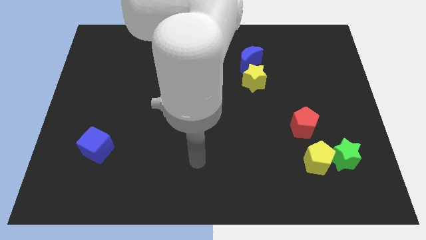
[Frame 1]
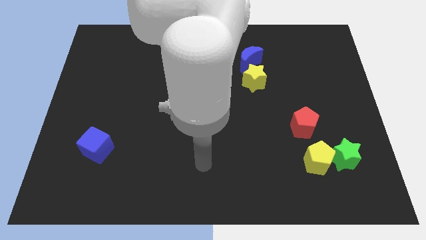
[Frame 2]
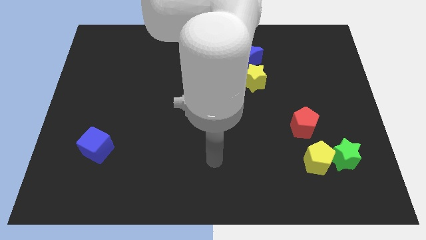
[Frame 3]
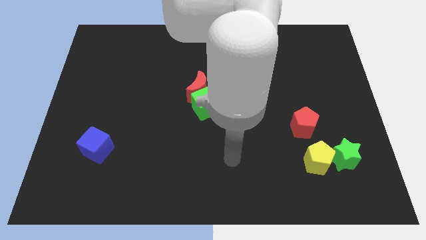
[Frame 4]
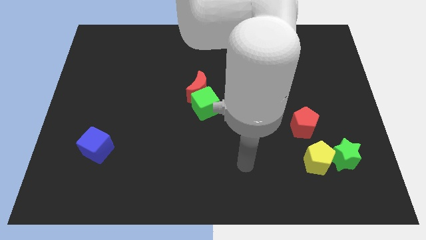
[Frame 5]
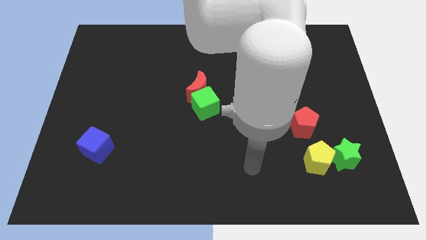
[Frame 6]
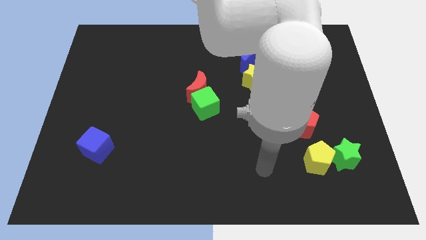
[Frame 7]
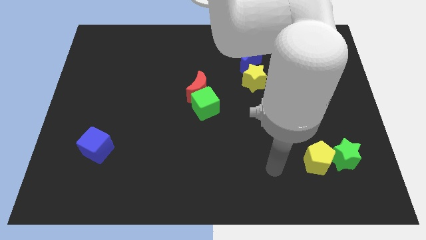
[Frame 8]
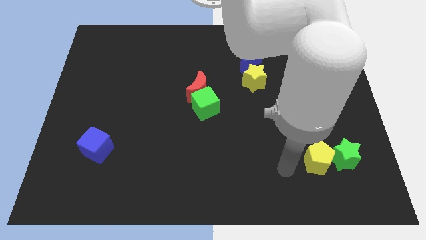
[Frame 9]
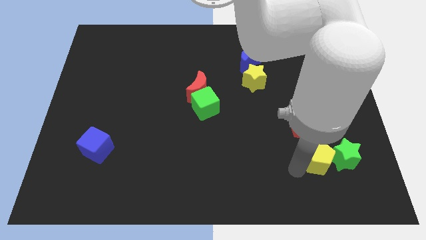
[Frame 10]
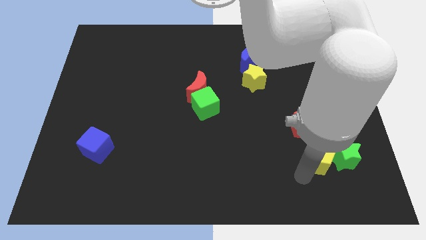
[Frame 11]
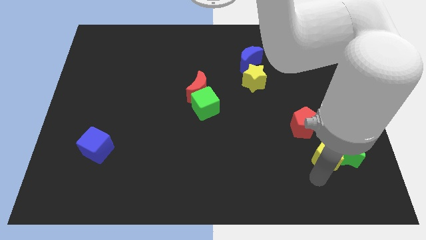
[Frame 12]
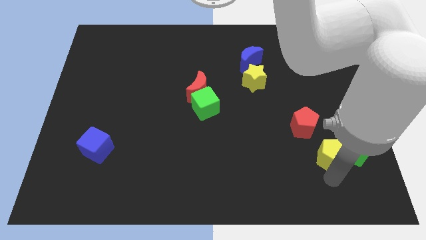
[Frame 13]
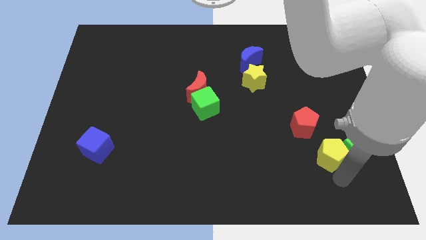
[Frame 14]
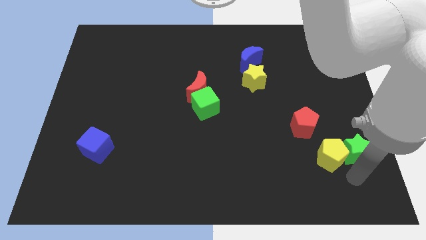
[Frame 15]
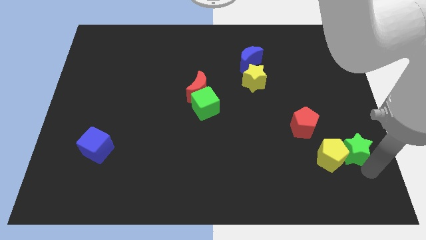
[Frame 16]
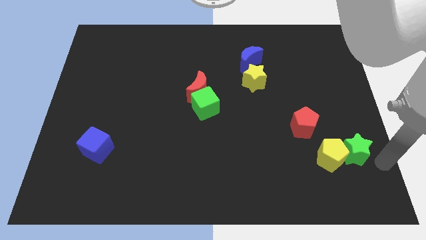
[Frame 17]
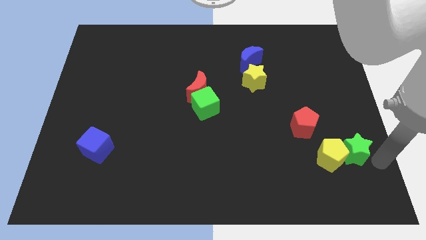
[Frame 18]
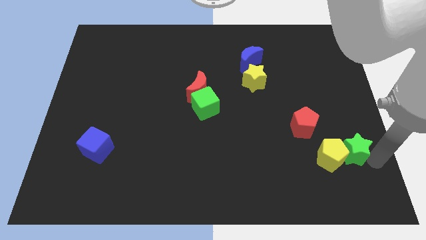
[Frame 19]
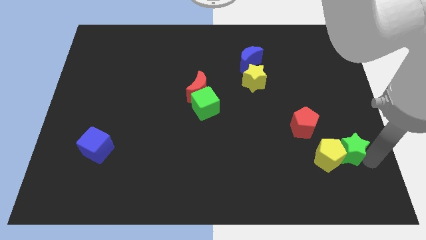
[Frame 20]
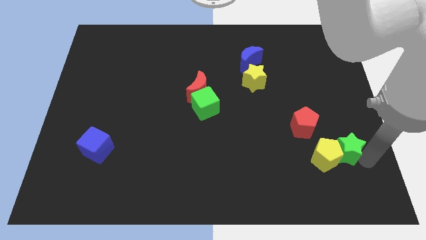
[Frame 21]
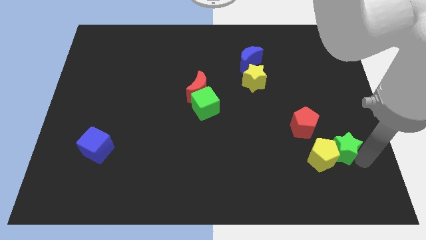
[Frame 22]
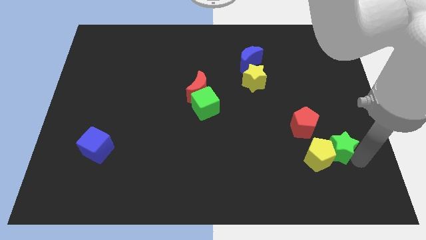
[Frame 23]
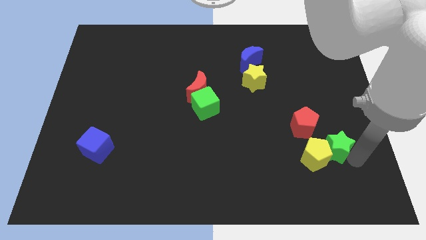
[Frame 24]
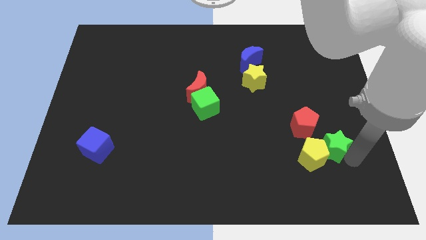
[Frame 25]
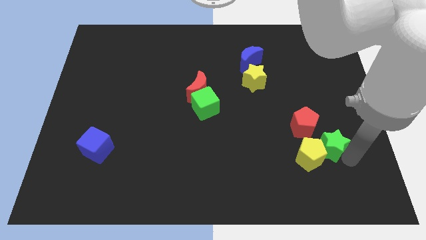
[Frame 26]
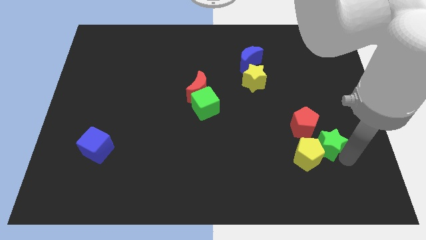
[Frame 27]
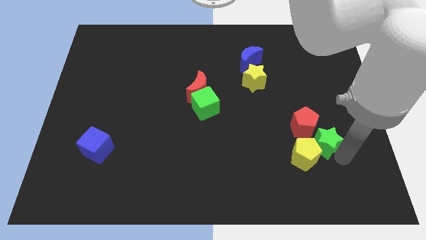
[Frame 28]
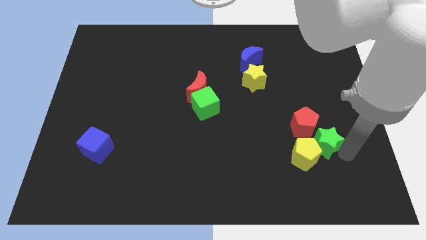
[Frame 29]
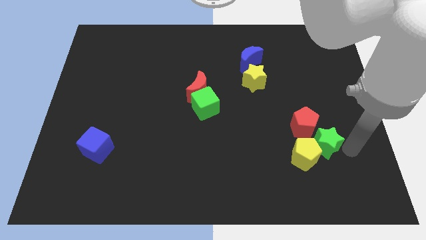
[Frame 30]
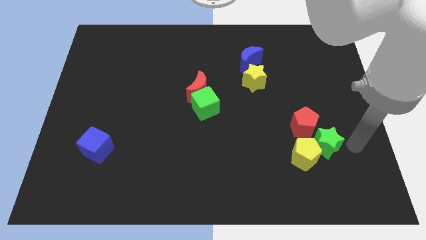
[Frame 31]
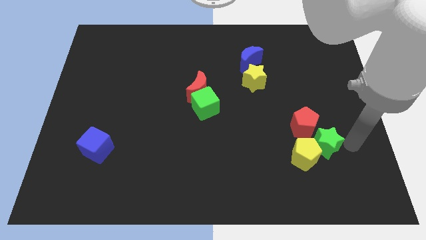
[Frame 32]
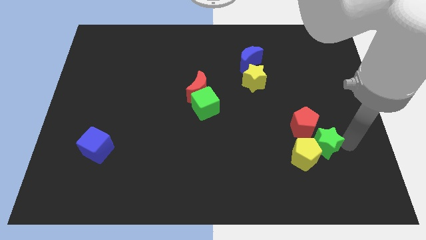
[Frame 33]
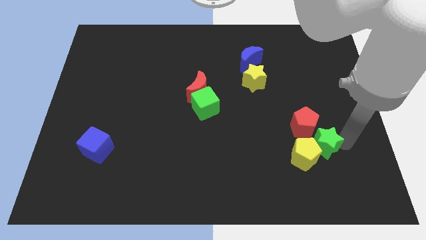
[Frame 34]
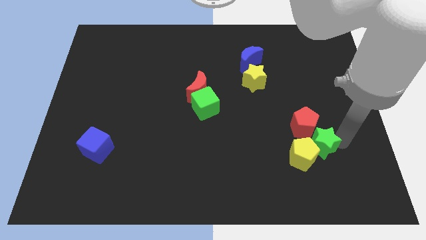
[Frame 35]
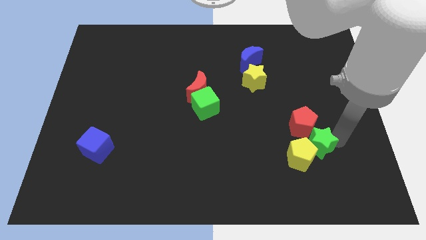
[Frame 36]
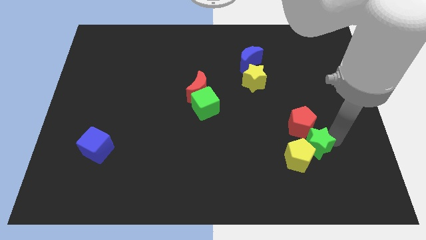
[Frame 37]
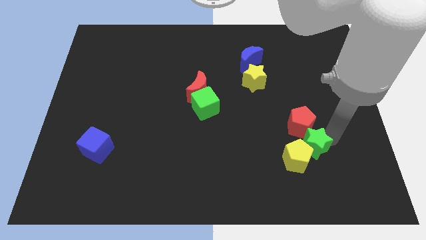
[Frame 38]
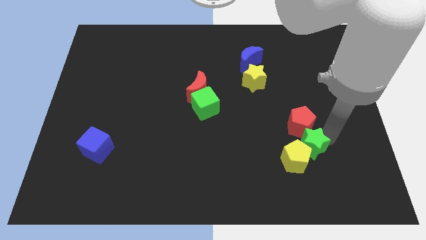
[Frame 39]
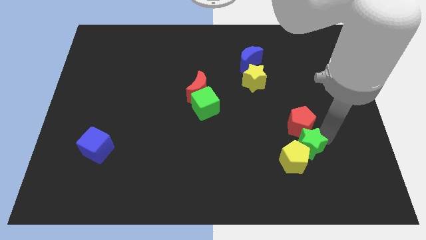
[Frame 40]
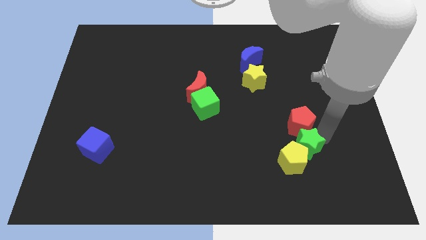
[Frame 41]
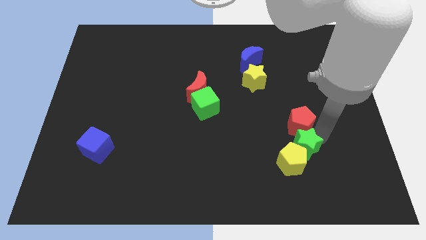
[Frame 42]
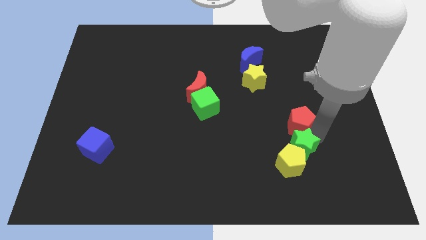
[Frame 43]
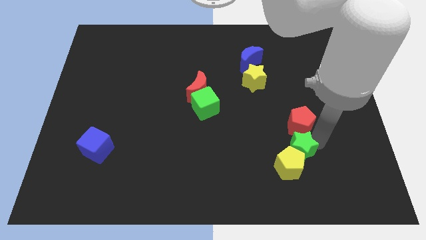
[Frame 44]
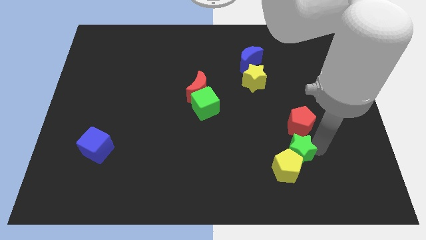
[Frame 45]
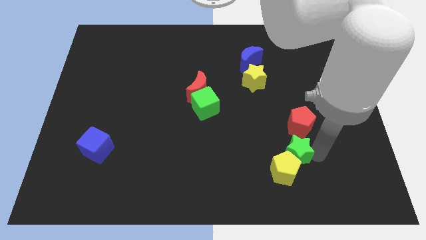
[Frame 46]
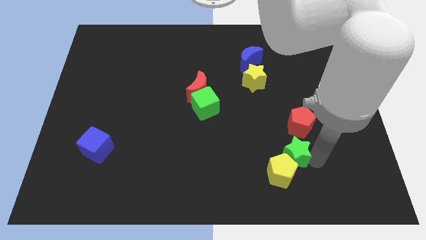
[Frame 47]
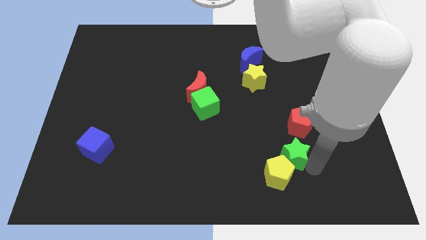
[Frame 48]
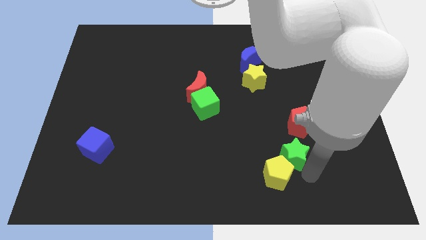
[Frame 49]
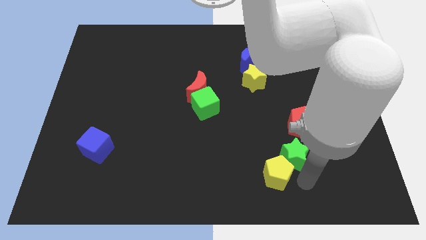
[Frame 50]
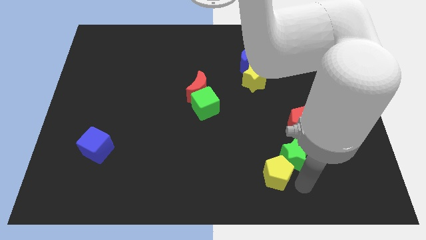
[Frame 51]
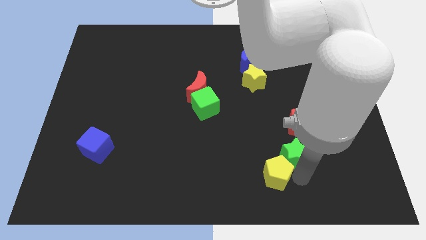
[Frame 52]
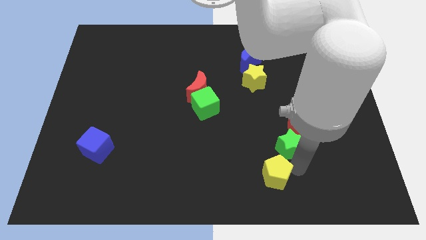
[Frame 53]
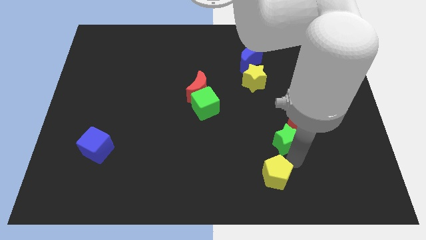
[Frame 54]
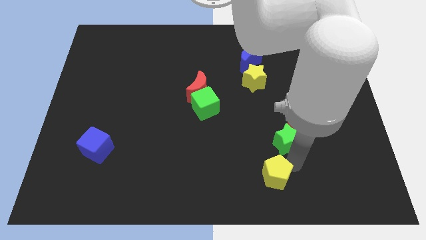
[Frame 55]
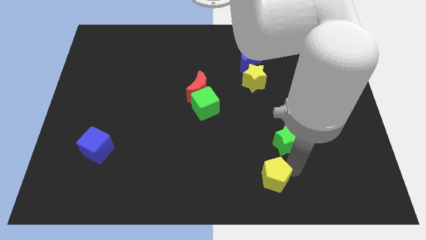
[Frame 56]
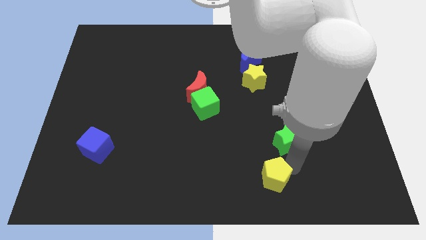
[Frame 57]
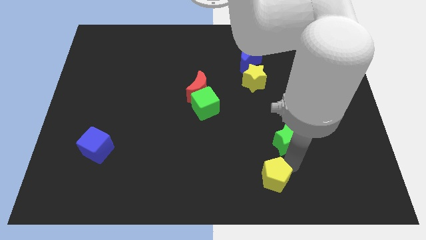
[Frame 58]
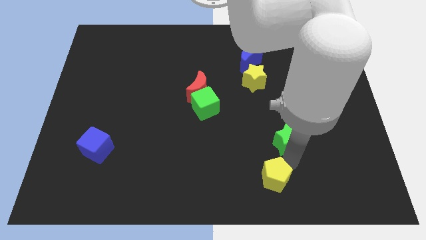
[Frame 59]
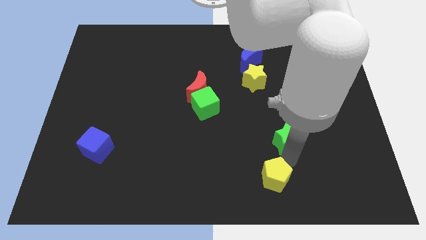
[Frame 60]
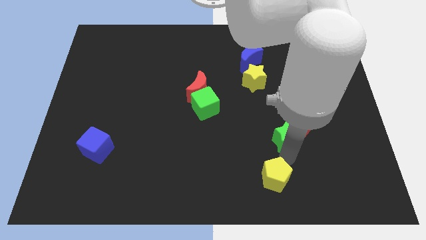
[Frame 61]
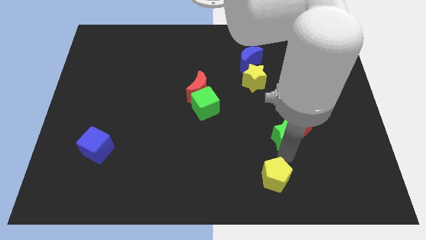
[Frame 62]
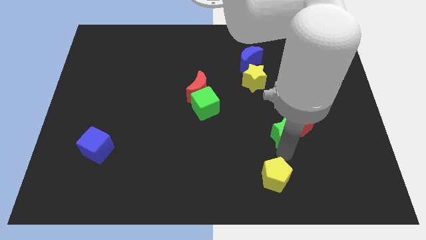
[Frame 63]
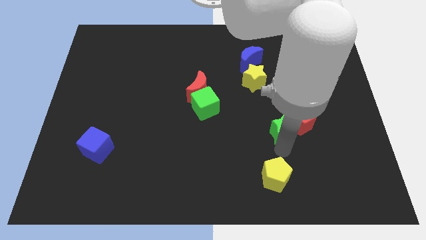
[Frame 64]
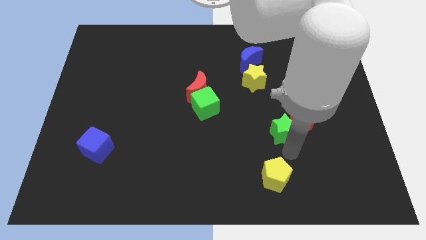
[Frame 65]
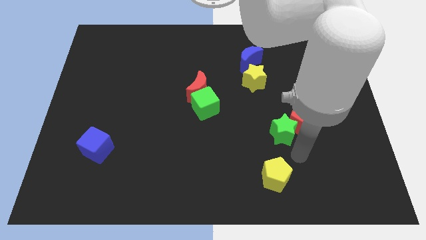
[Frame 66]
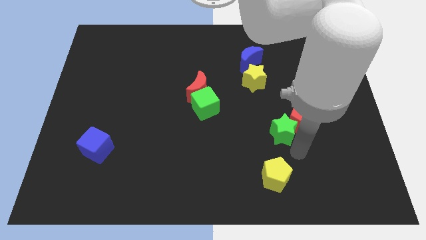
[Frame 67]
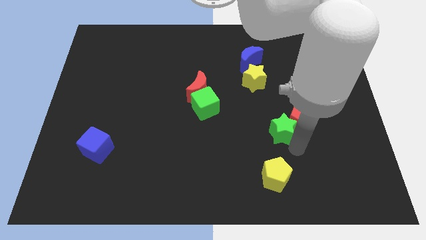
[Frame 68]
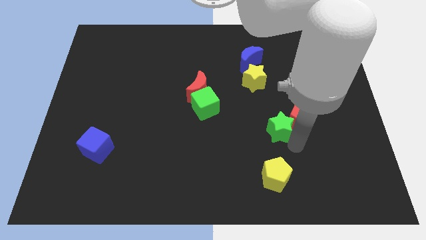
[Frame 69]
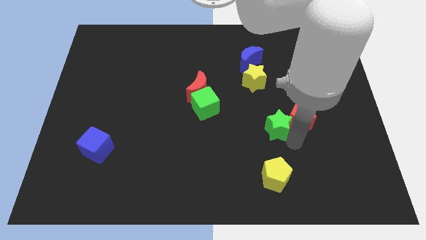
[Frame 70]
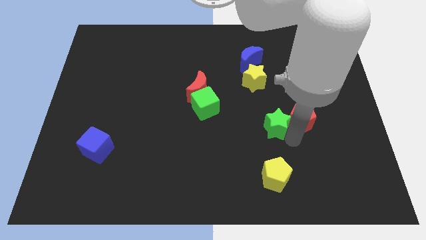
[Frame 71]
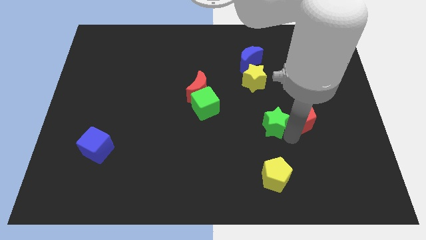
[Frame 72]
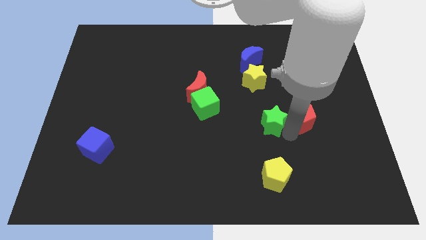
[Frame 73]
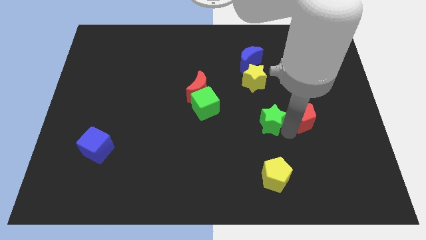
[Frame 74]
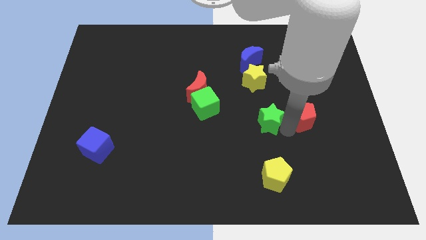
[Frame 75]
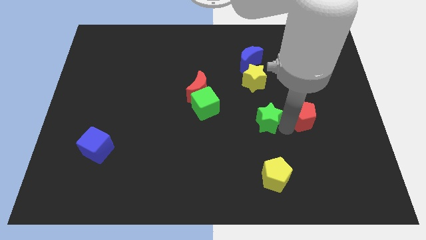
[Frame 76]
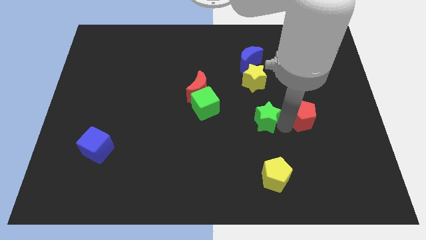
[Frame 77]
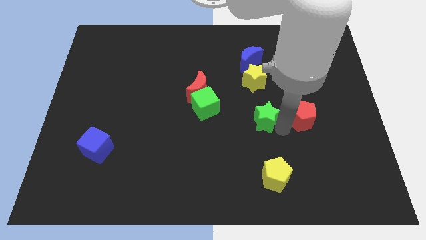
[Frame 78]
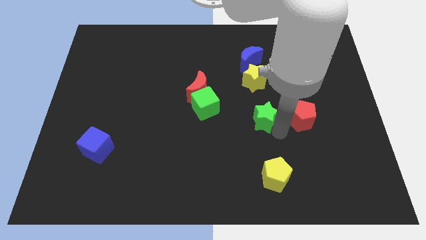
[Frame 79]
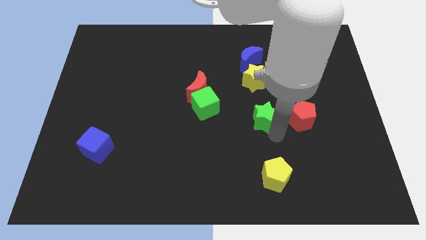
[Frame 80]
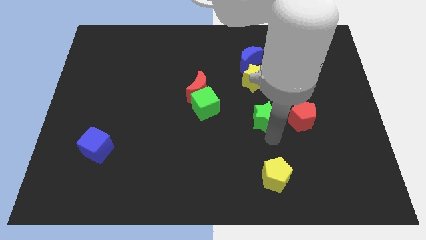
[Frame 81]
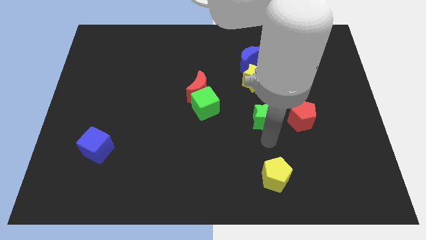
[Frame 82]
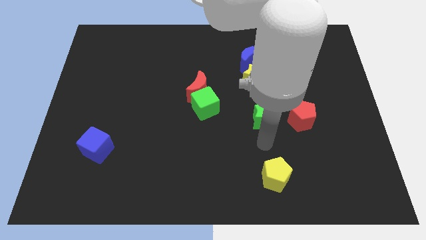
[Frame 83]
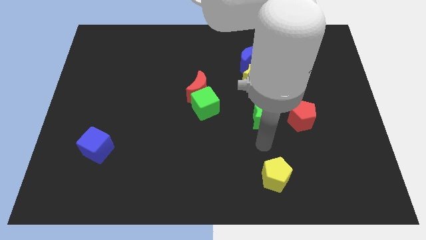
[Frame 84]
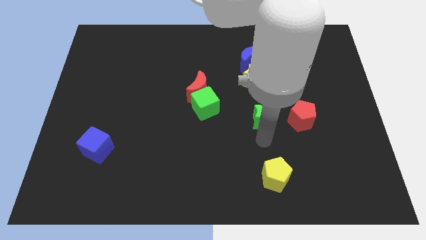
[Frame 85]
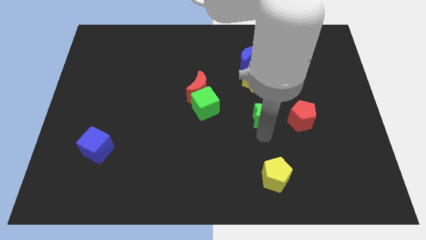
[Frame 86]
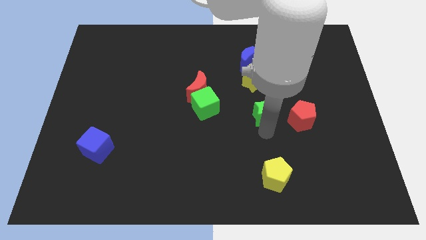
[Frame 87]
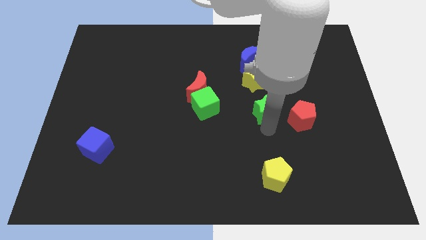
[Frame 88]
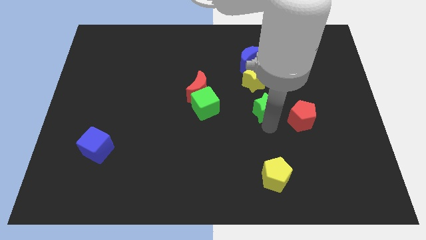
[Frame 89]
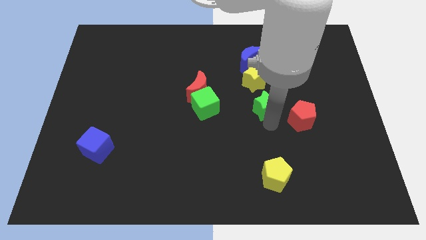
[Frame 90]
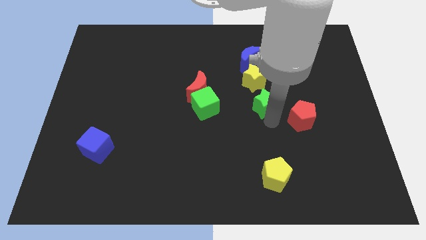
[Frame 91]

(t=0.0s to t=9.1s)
push the green star to the bottom of the blue moon
